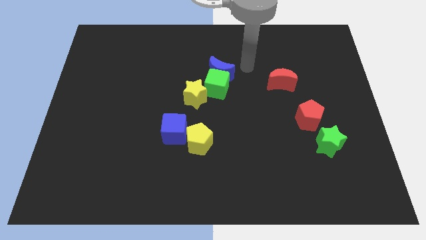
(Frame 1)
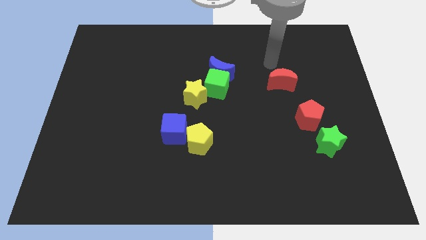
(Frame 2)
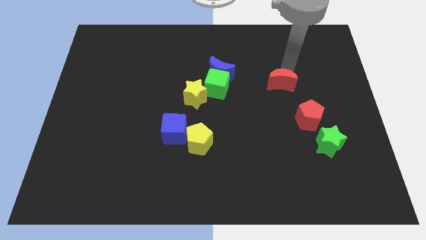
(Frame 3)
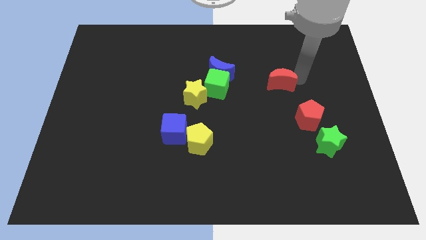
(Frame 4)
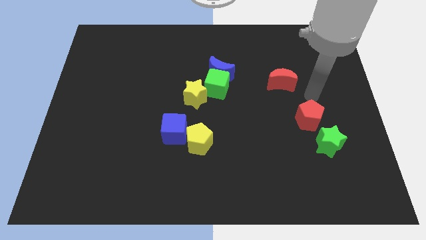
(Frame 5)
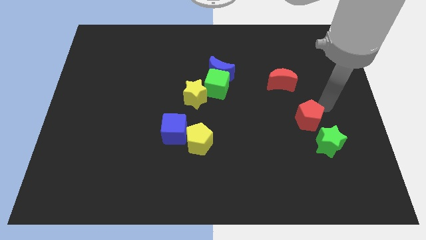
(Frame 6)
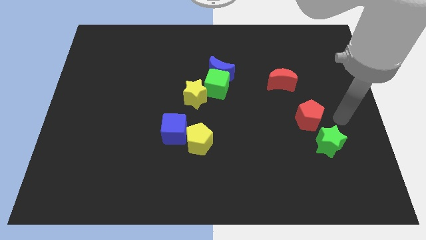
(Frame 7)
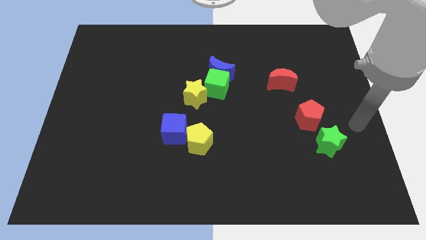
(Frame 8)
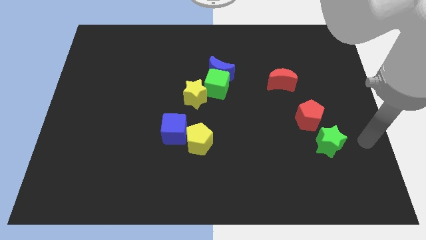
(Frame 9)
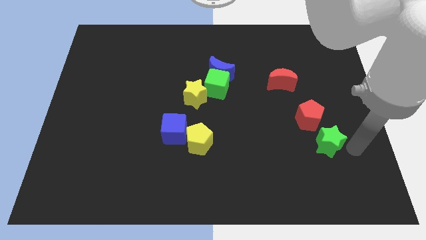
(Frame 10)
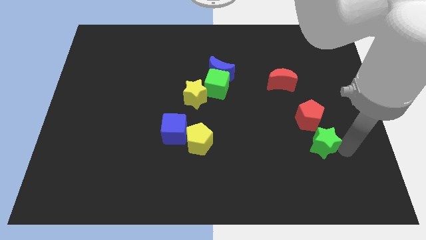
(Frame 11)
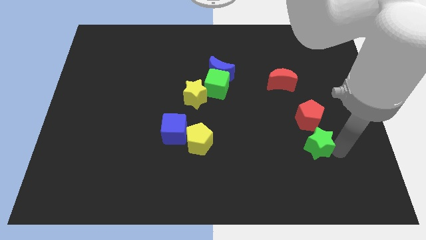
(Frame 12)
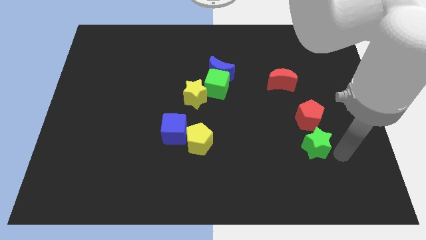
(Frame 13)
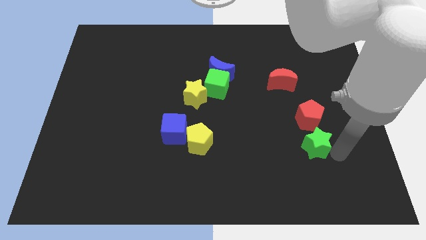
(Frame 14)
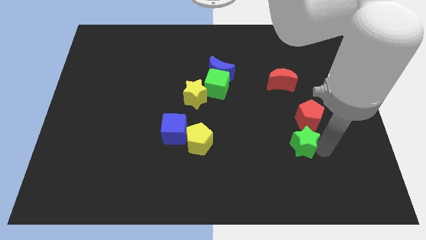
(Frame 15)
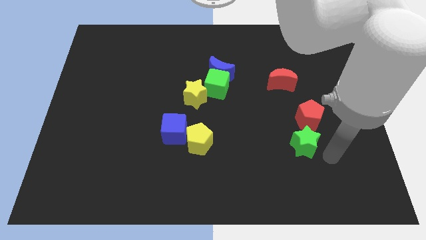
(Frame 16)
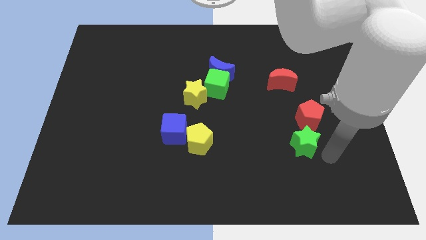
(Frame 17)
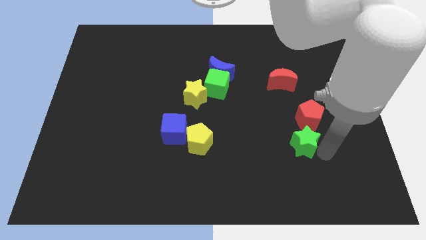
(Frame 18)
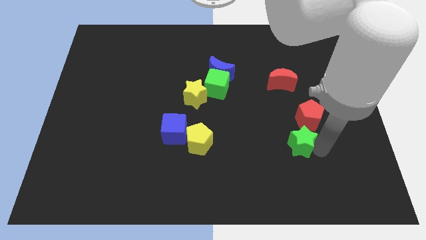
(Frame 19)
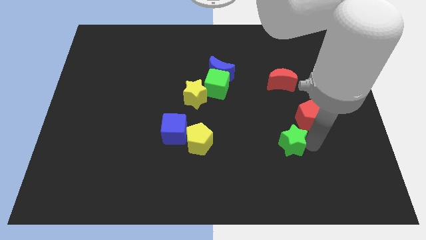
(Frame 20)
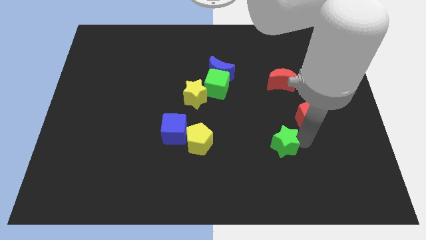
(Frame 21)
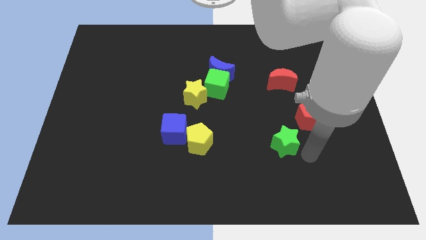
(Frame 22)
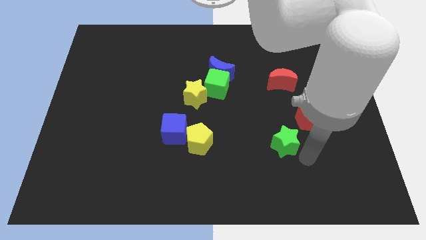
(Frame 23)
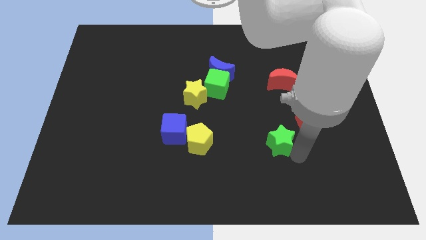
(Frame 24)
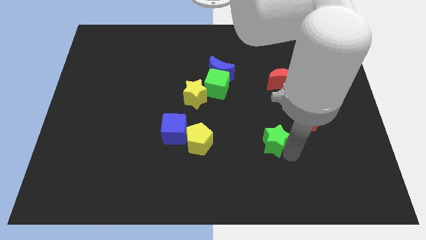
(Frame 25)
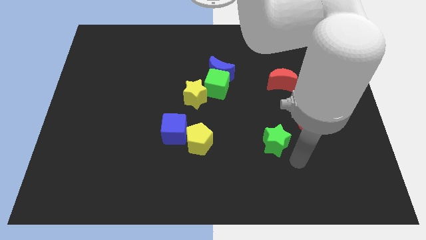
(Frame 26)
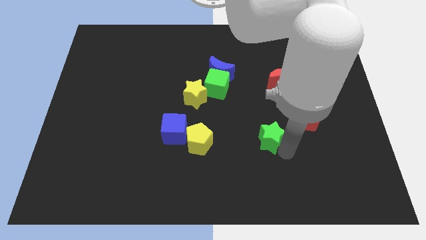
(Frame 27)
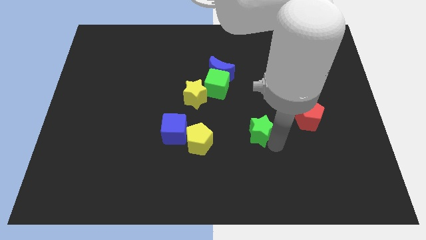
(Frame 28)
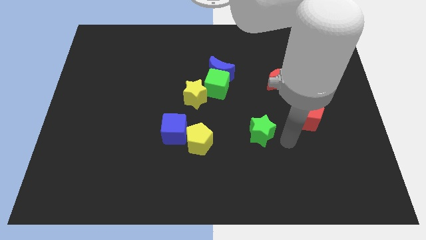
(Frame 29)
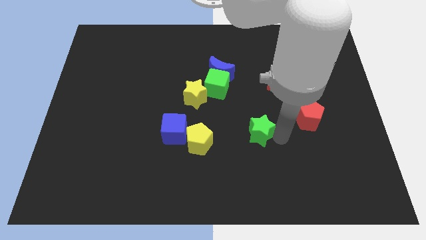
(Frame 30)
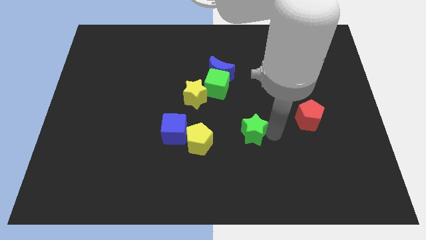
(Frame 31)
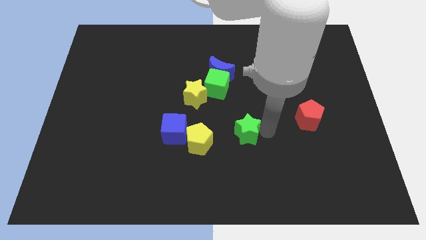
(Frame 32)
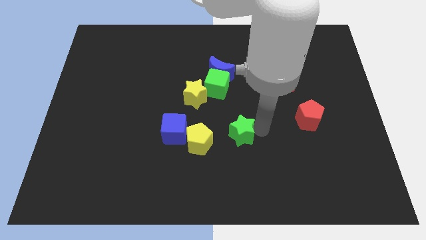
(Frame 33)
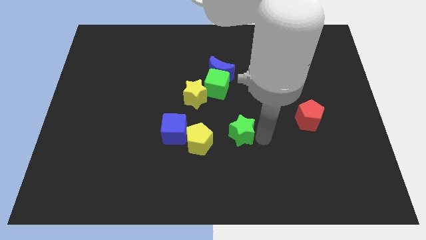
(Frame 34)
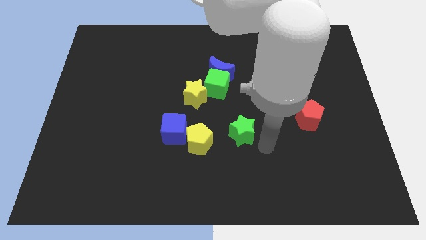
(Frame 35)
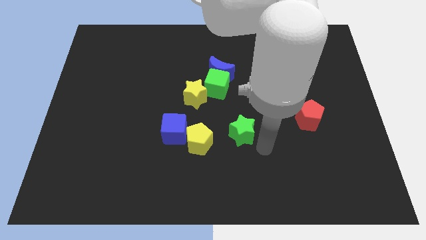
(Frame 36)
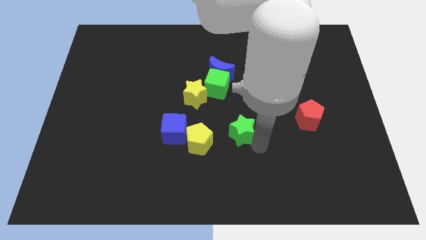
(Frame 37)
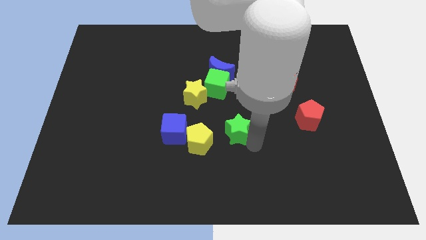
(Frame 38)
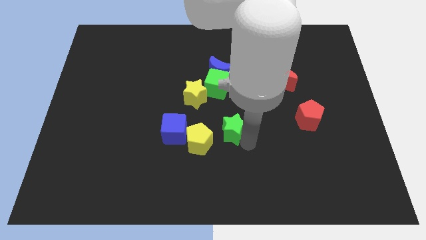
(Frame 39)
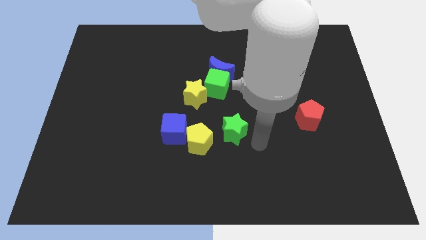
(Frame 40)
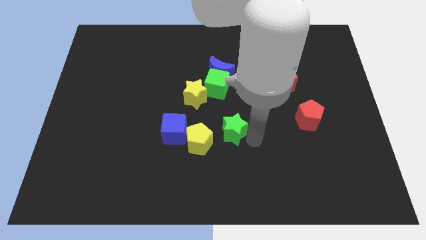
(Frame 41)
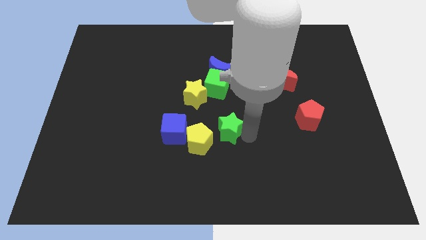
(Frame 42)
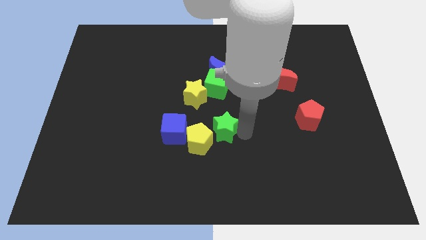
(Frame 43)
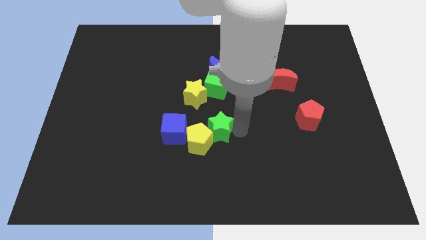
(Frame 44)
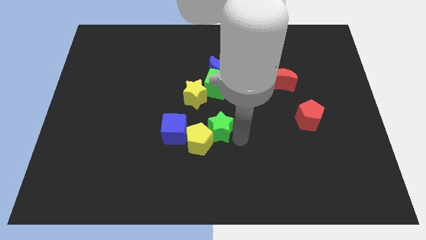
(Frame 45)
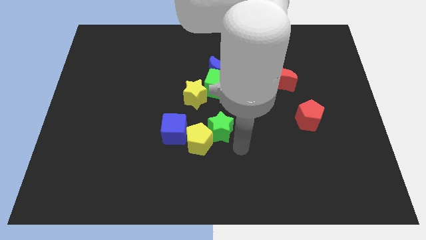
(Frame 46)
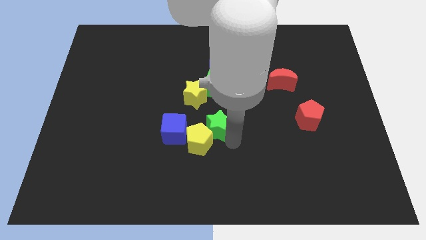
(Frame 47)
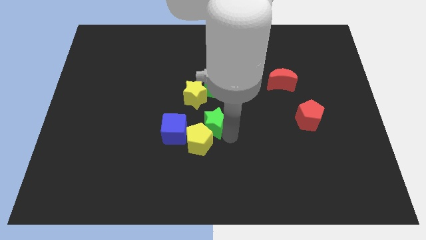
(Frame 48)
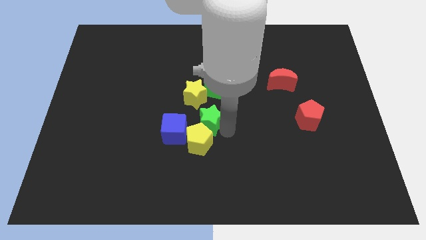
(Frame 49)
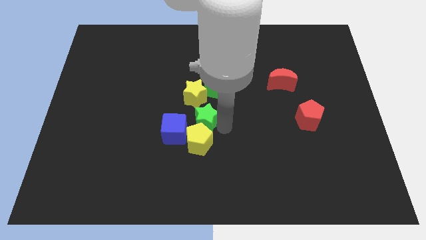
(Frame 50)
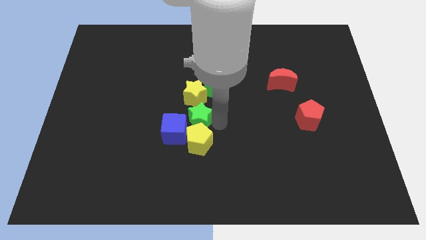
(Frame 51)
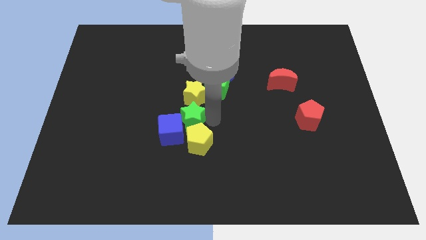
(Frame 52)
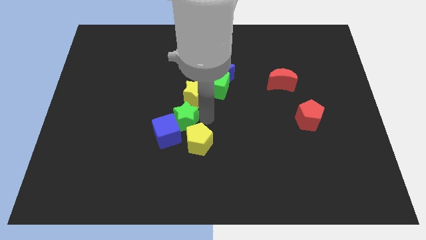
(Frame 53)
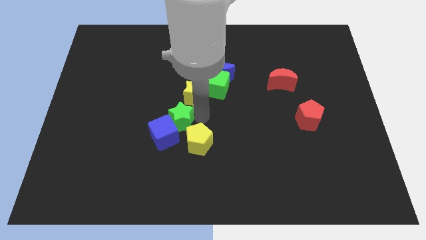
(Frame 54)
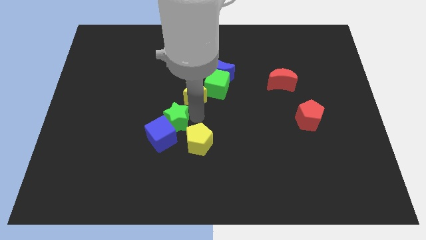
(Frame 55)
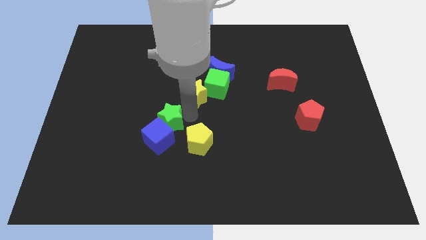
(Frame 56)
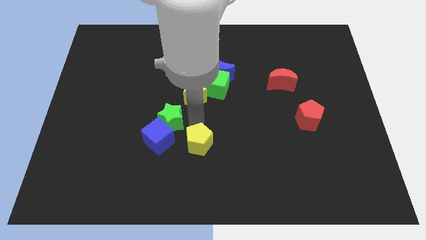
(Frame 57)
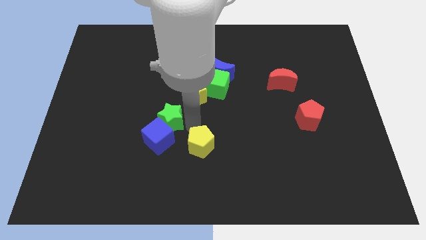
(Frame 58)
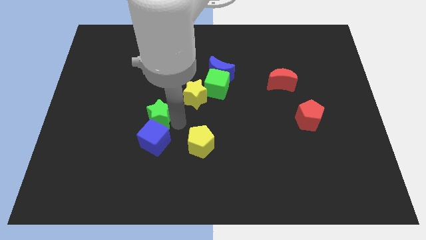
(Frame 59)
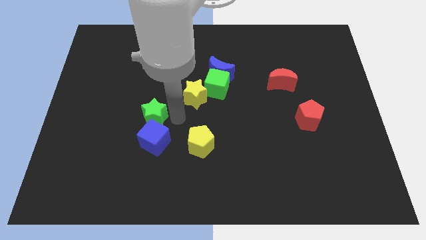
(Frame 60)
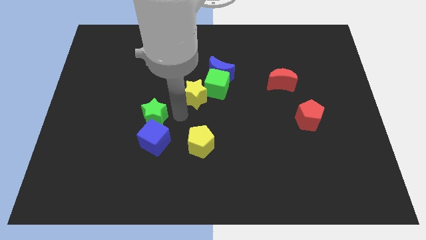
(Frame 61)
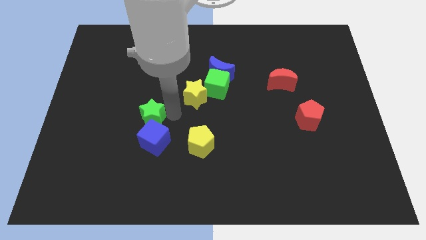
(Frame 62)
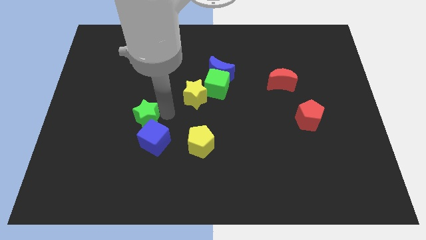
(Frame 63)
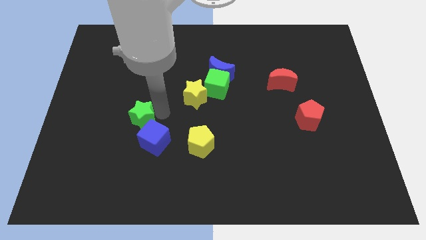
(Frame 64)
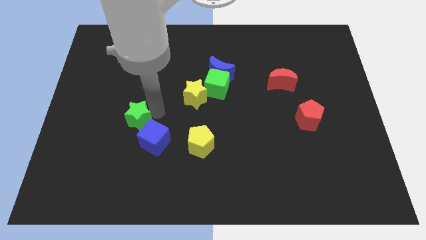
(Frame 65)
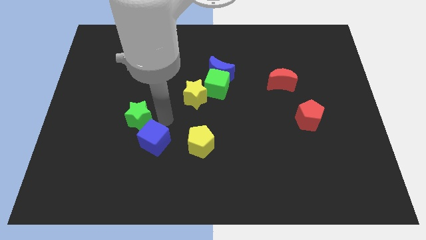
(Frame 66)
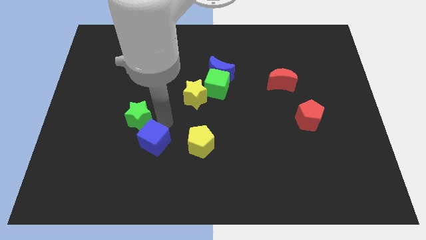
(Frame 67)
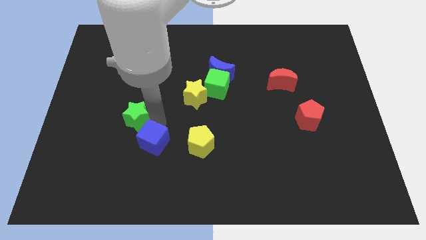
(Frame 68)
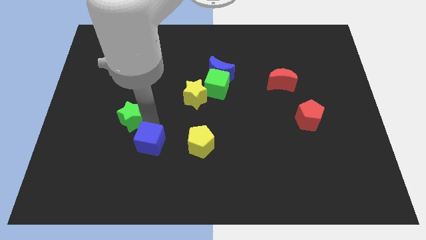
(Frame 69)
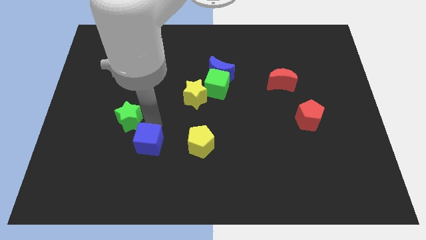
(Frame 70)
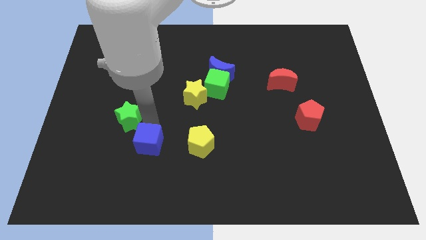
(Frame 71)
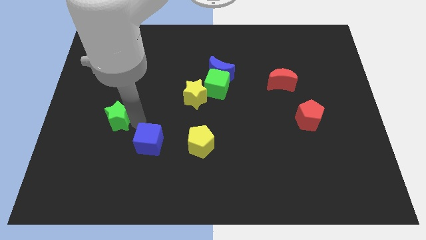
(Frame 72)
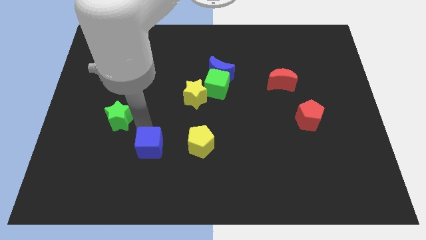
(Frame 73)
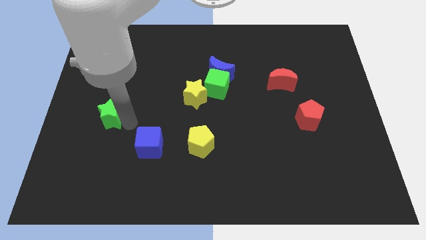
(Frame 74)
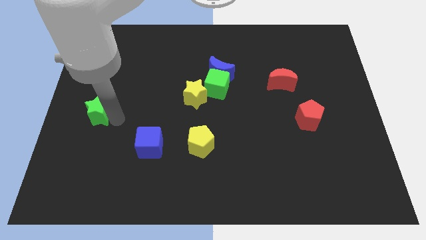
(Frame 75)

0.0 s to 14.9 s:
slide the green star to the center left
